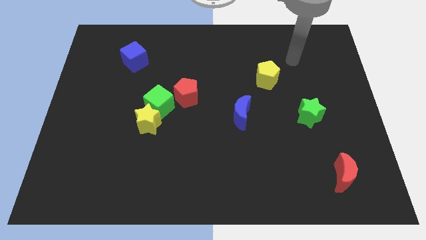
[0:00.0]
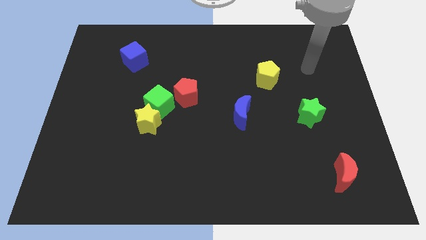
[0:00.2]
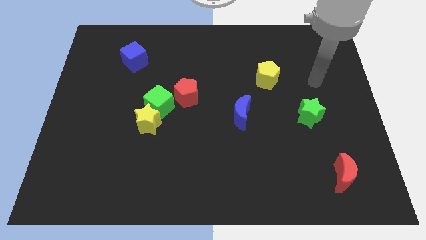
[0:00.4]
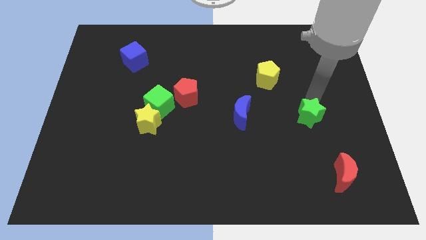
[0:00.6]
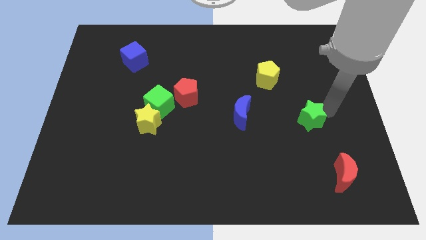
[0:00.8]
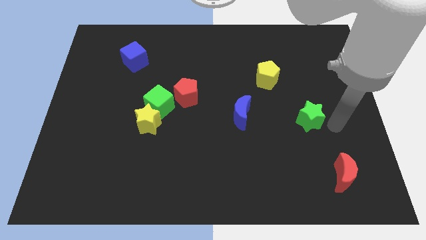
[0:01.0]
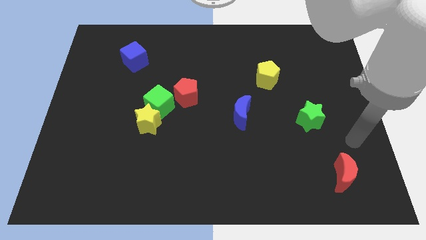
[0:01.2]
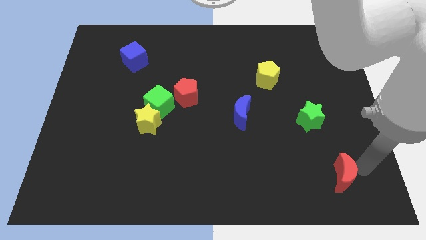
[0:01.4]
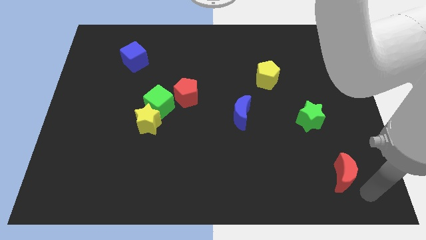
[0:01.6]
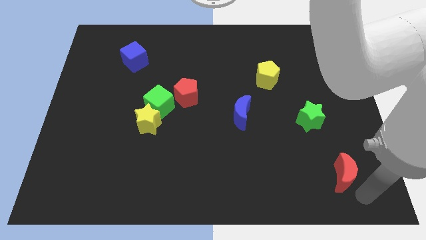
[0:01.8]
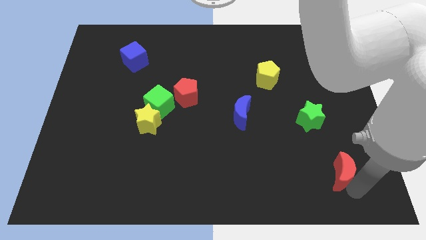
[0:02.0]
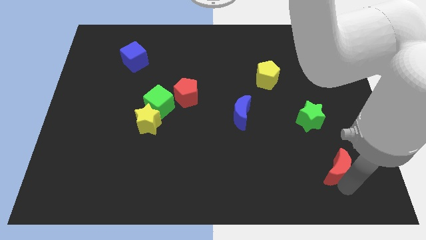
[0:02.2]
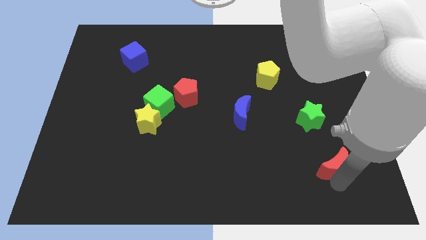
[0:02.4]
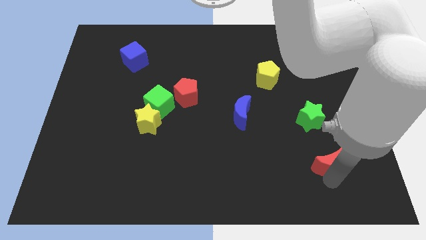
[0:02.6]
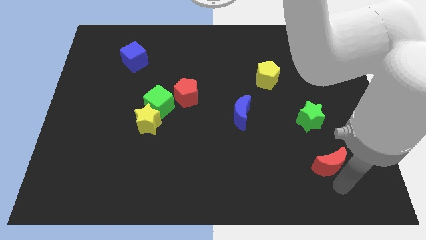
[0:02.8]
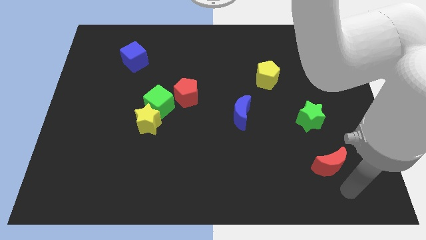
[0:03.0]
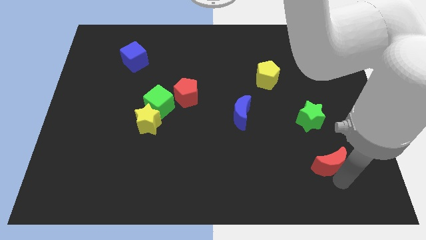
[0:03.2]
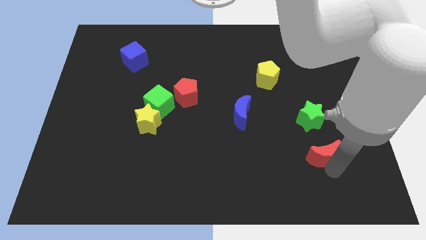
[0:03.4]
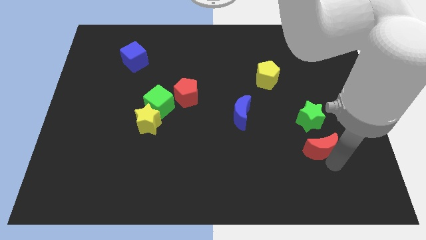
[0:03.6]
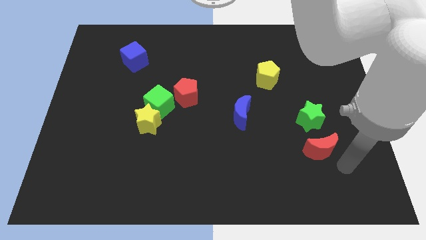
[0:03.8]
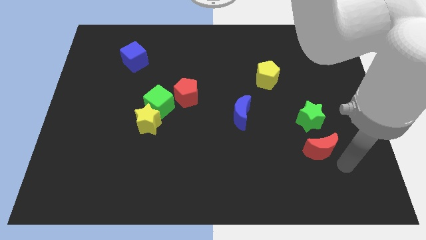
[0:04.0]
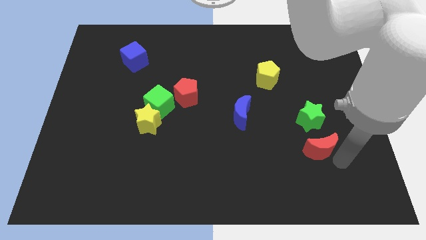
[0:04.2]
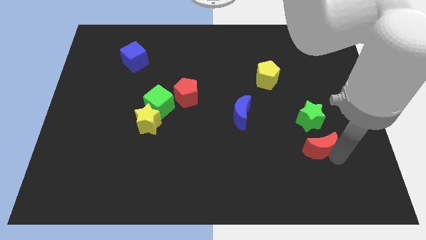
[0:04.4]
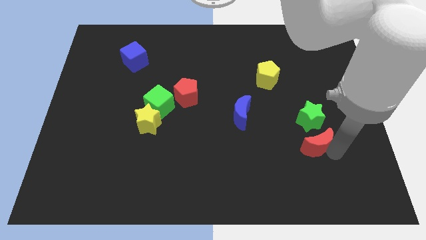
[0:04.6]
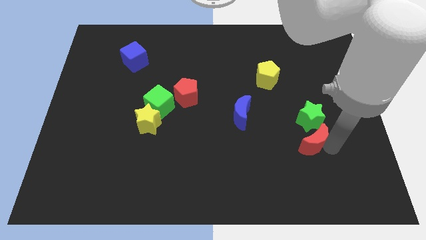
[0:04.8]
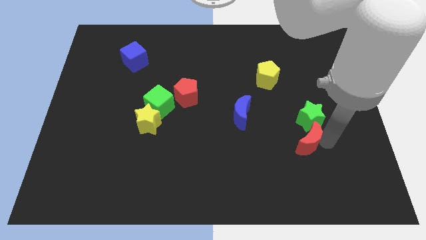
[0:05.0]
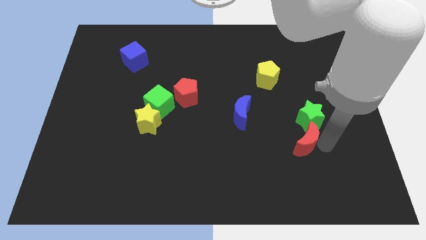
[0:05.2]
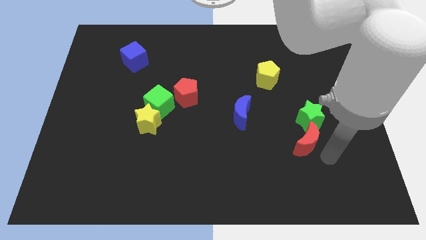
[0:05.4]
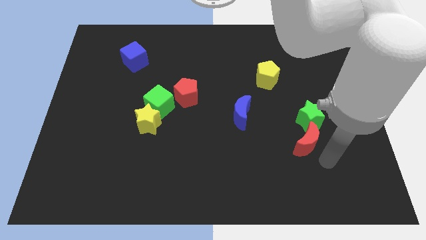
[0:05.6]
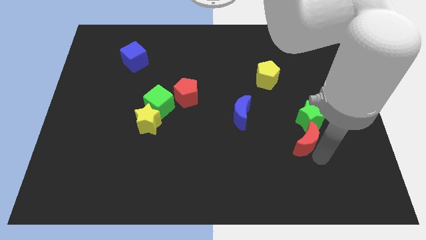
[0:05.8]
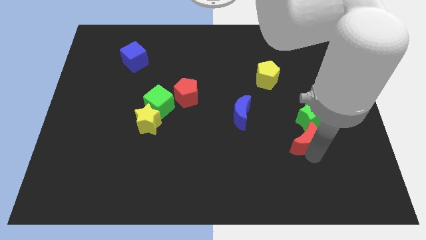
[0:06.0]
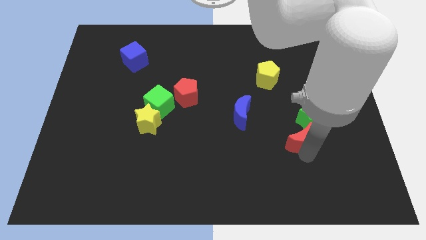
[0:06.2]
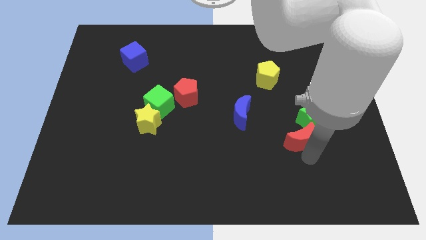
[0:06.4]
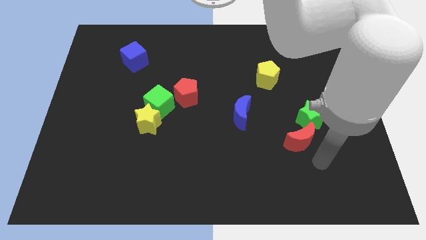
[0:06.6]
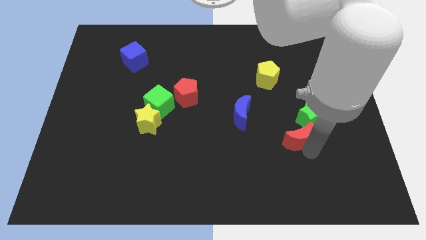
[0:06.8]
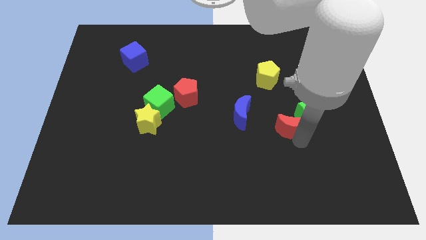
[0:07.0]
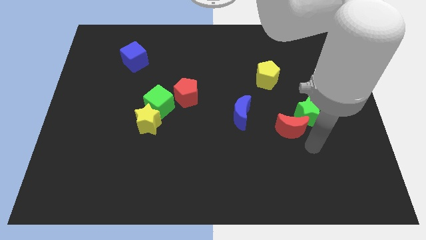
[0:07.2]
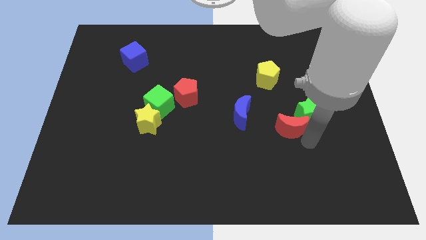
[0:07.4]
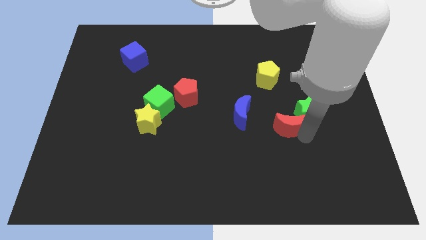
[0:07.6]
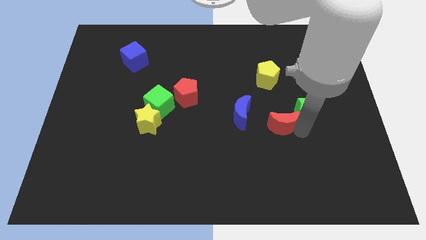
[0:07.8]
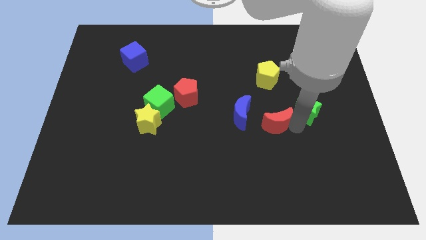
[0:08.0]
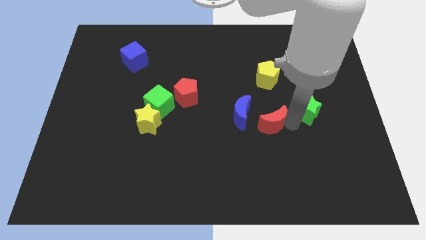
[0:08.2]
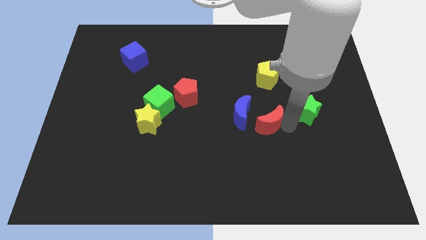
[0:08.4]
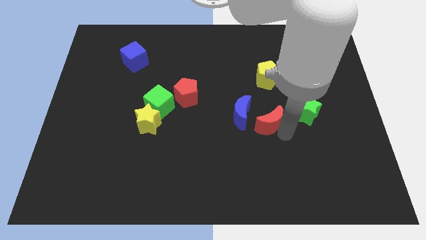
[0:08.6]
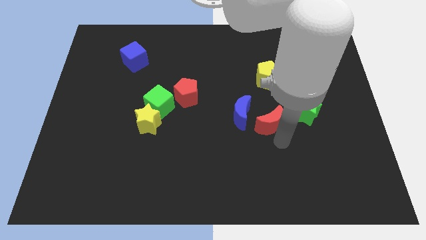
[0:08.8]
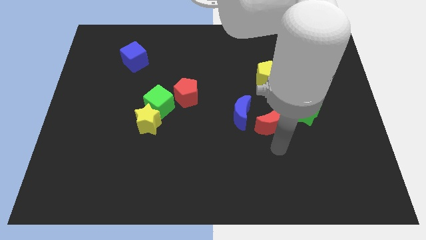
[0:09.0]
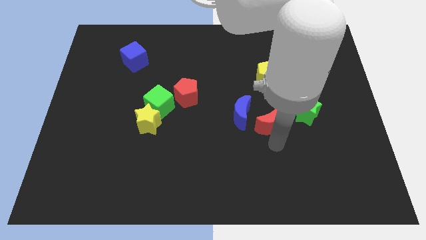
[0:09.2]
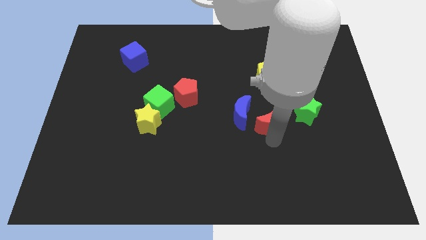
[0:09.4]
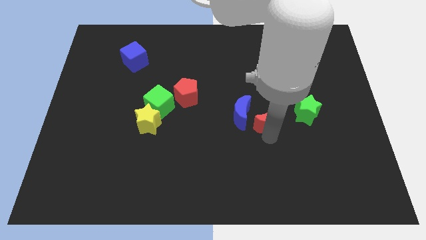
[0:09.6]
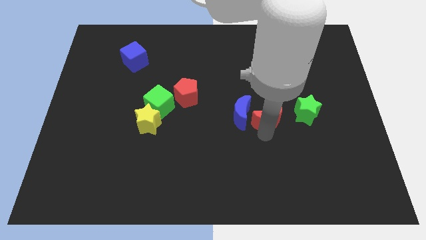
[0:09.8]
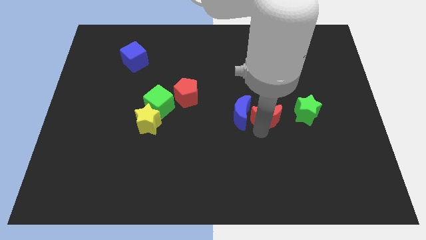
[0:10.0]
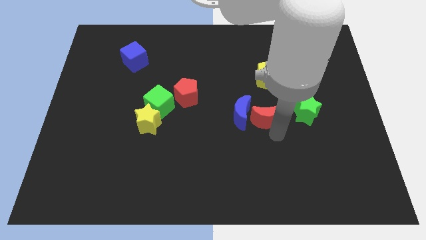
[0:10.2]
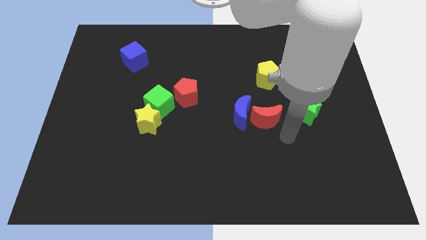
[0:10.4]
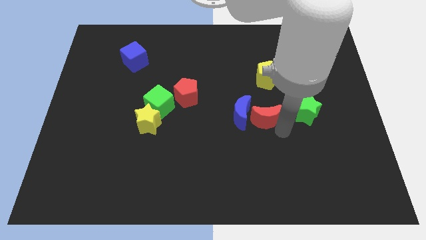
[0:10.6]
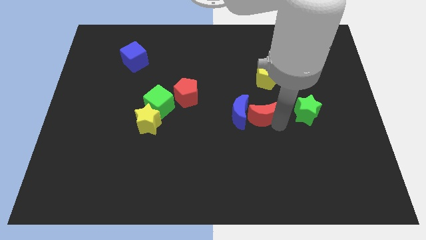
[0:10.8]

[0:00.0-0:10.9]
move the red moon to the middle

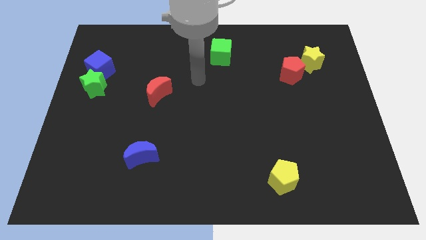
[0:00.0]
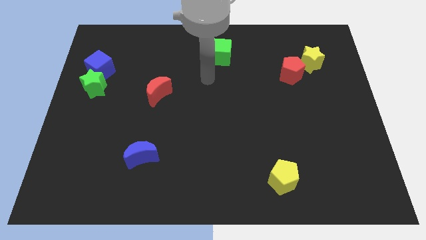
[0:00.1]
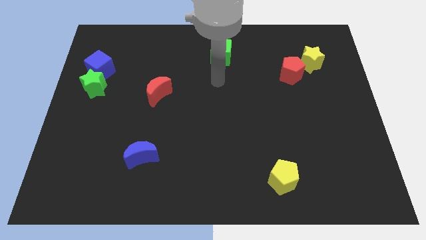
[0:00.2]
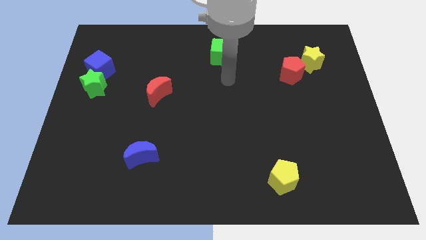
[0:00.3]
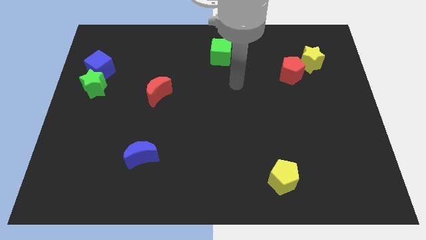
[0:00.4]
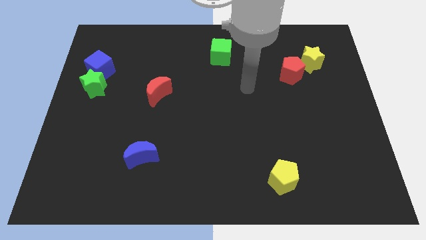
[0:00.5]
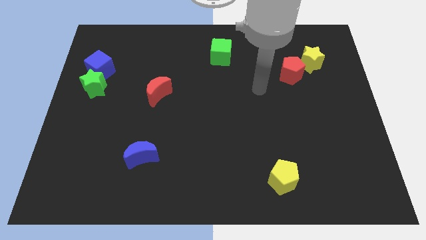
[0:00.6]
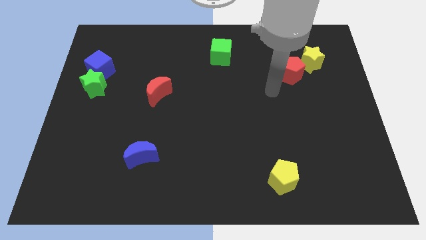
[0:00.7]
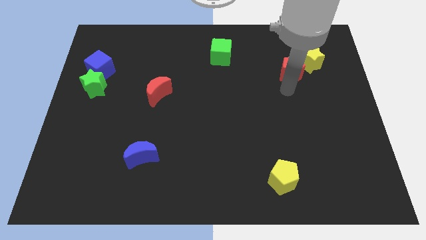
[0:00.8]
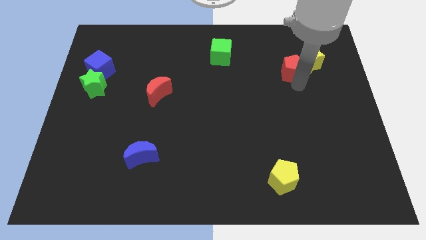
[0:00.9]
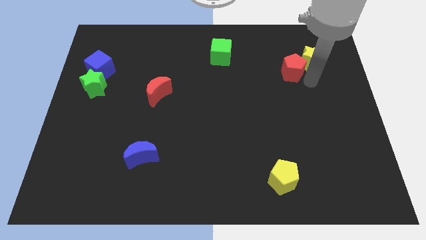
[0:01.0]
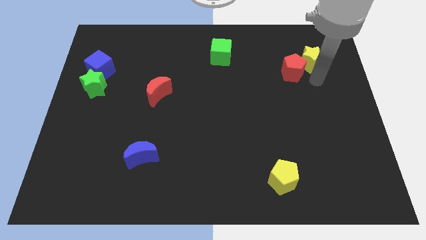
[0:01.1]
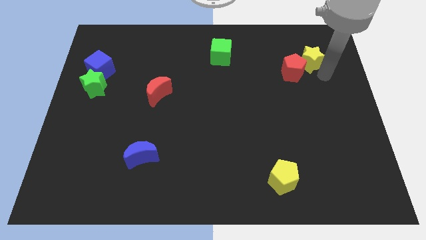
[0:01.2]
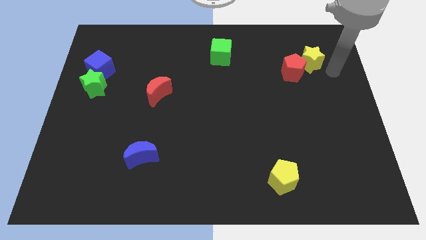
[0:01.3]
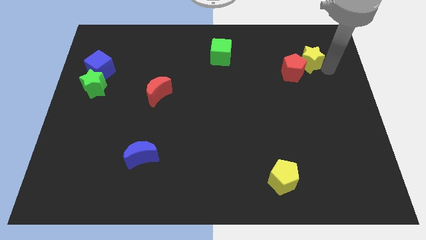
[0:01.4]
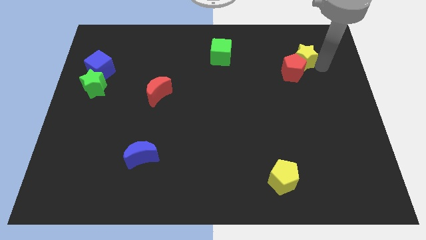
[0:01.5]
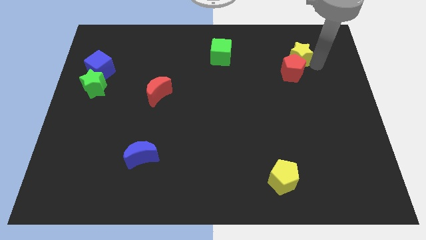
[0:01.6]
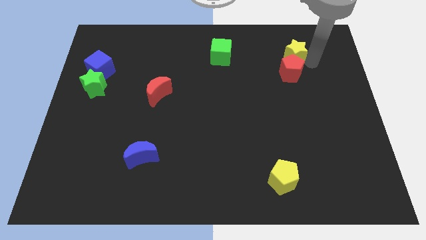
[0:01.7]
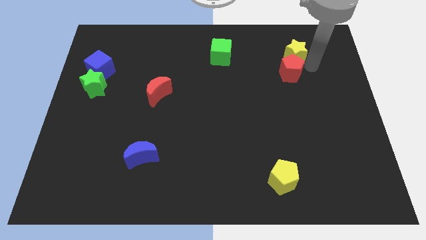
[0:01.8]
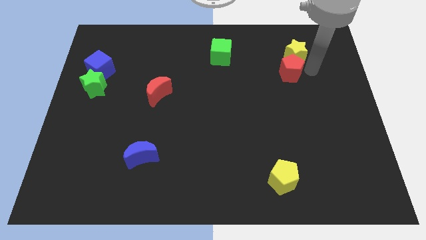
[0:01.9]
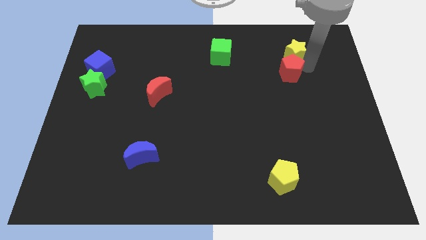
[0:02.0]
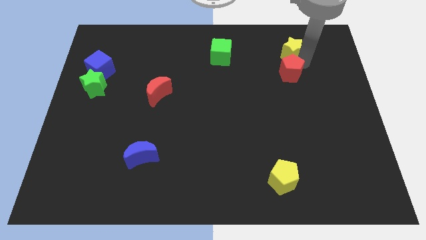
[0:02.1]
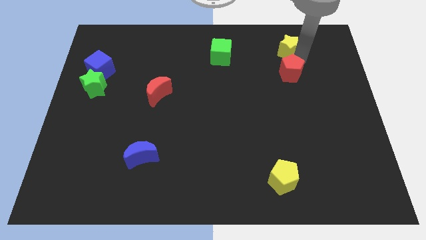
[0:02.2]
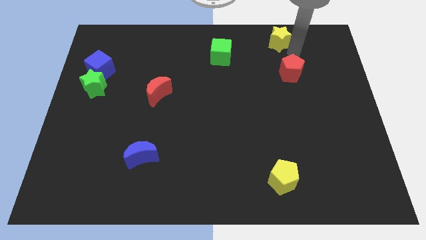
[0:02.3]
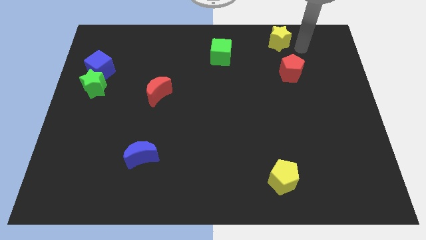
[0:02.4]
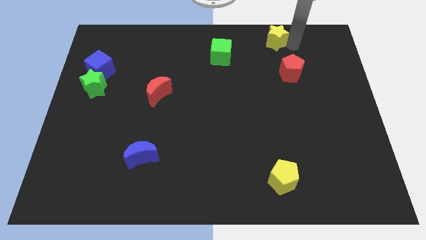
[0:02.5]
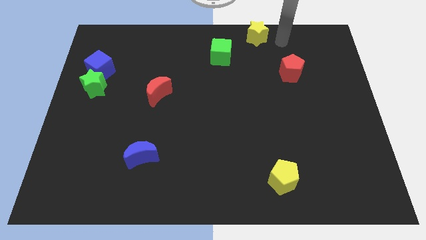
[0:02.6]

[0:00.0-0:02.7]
move the yellow star to the top side
